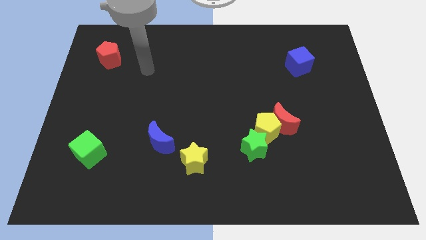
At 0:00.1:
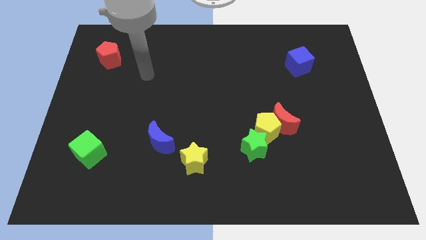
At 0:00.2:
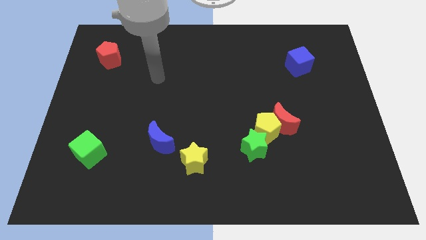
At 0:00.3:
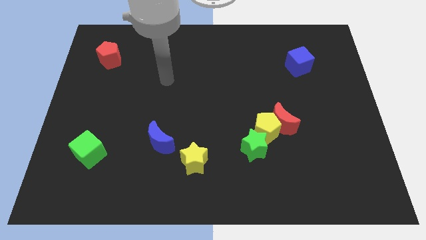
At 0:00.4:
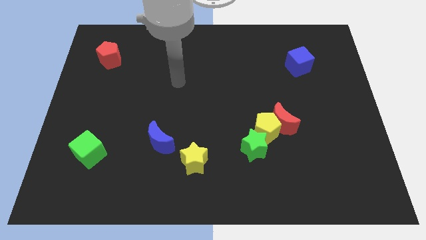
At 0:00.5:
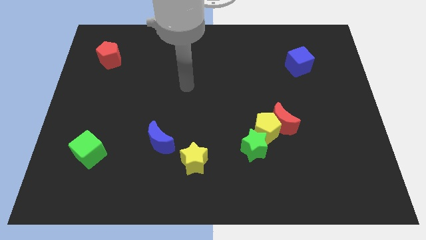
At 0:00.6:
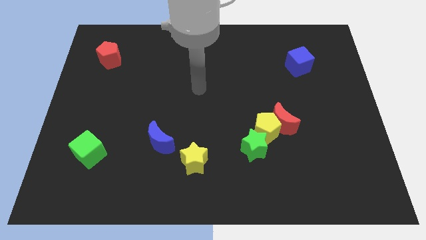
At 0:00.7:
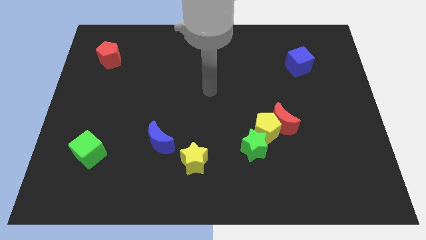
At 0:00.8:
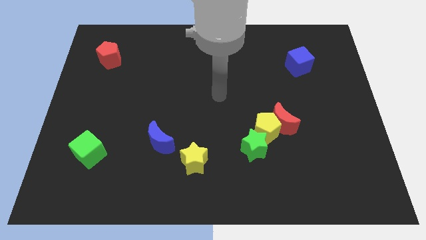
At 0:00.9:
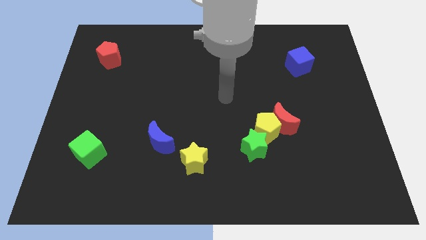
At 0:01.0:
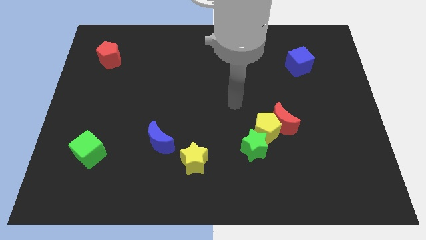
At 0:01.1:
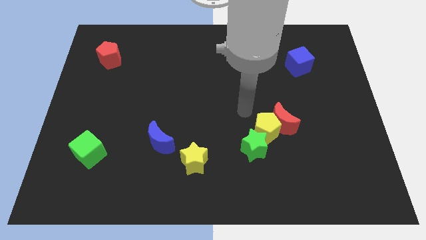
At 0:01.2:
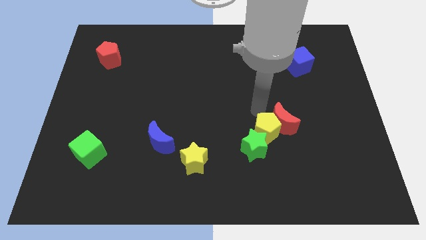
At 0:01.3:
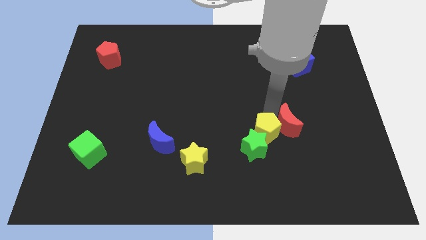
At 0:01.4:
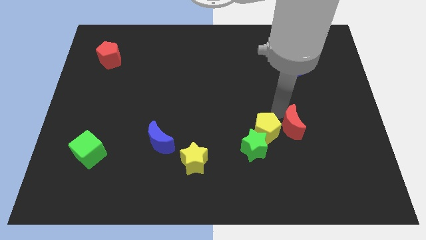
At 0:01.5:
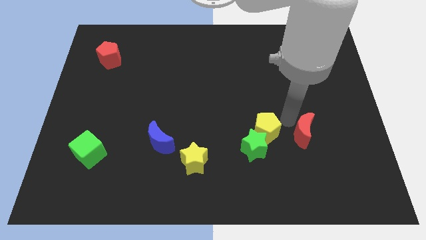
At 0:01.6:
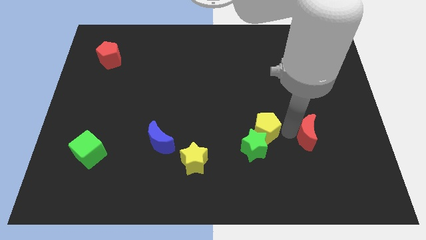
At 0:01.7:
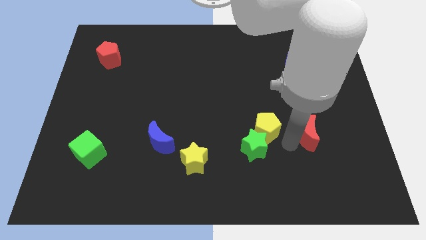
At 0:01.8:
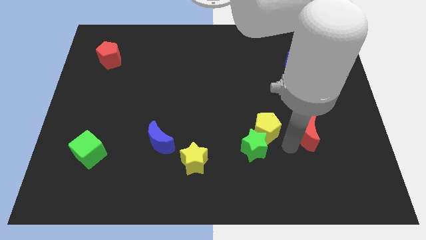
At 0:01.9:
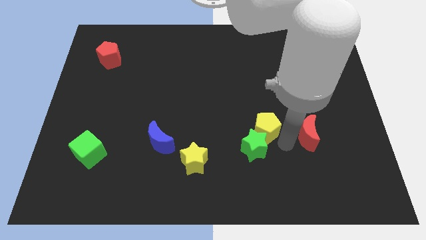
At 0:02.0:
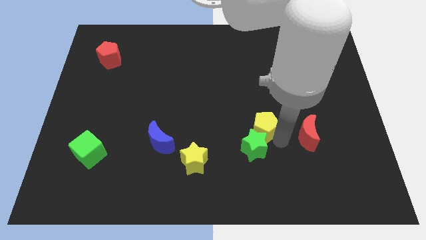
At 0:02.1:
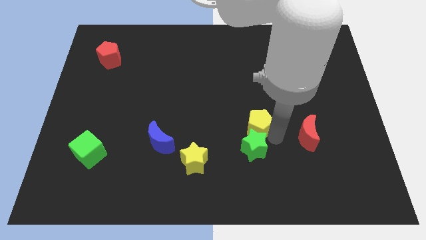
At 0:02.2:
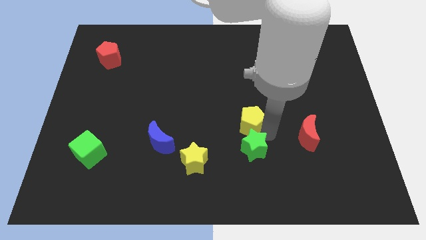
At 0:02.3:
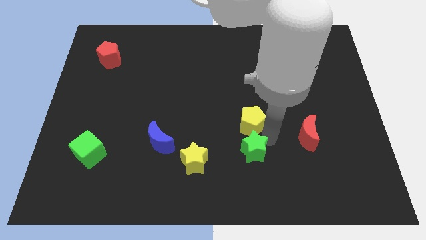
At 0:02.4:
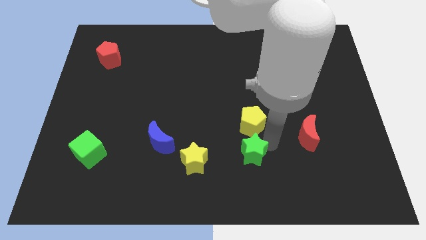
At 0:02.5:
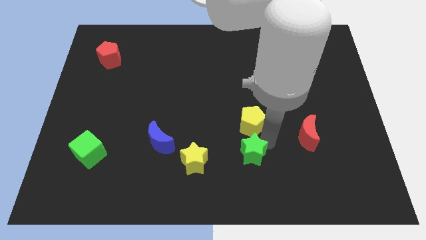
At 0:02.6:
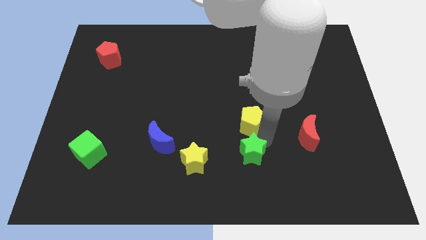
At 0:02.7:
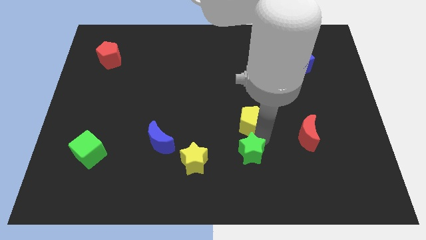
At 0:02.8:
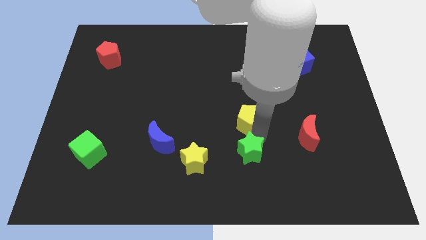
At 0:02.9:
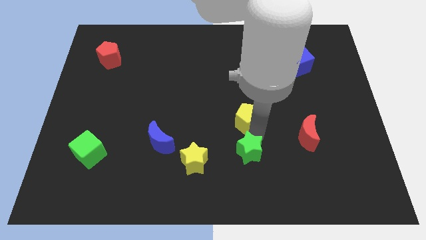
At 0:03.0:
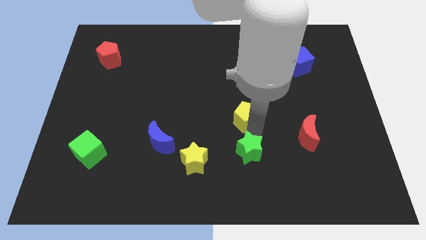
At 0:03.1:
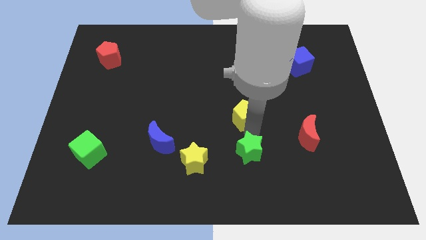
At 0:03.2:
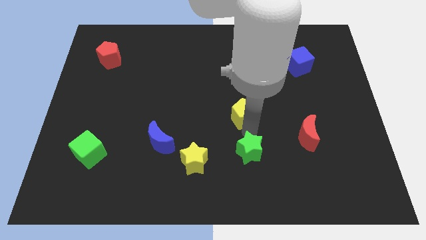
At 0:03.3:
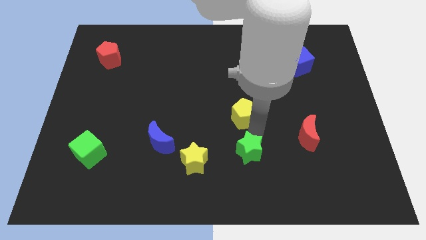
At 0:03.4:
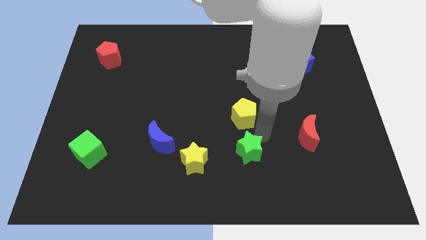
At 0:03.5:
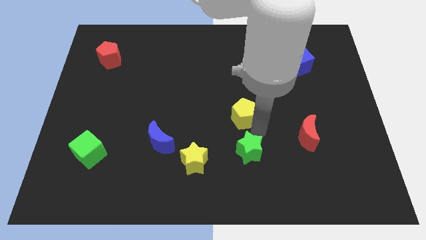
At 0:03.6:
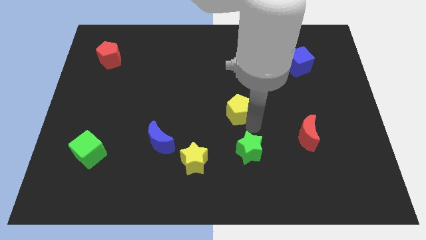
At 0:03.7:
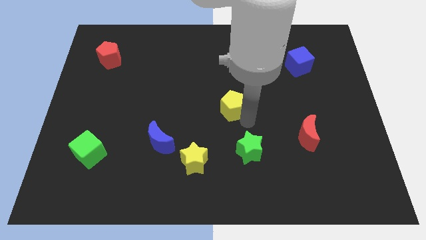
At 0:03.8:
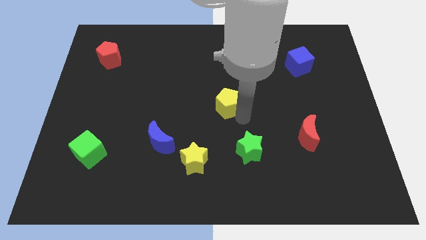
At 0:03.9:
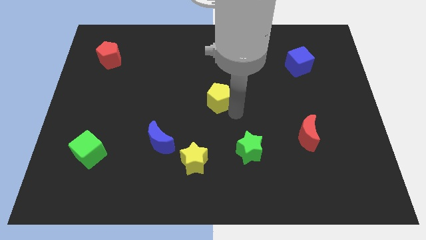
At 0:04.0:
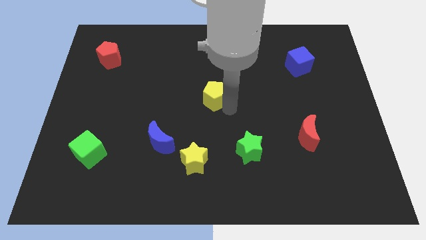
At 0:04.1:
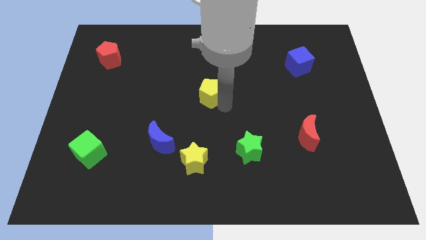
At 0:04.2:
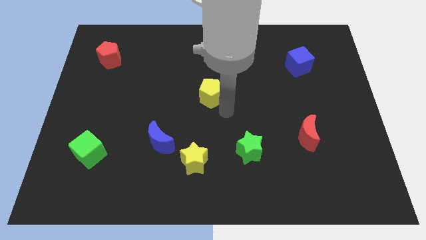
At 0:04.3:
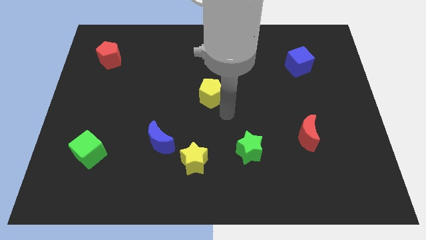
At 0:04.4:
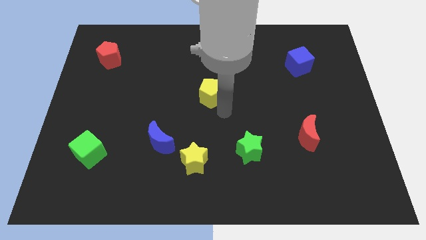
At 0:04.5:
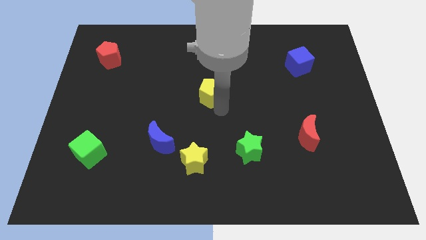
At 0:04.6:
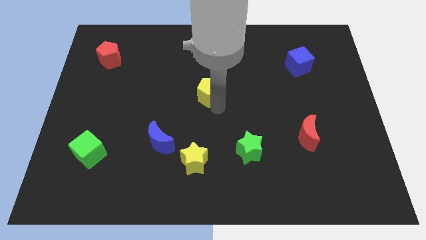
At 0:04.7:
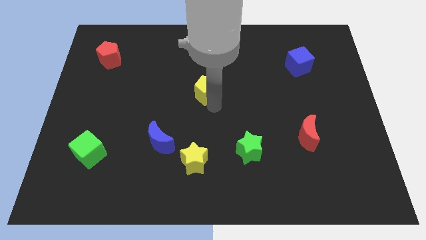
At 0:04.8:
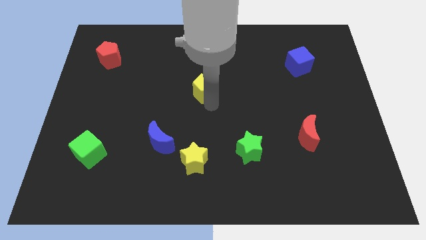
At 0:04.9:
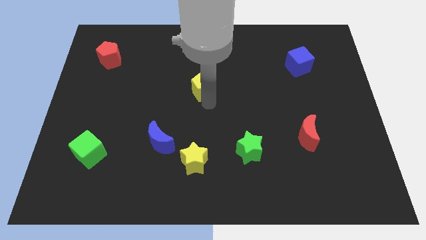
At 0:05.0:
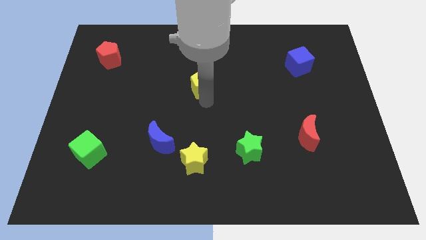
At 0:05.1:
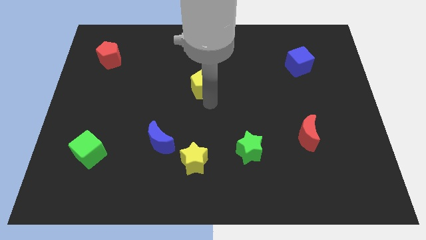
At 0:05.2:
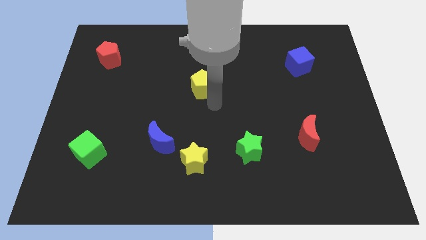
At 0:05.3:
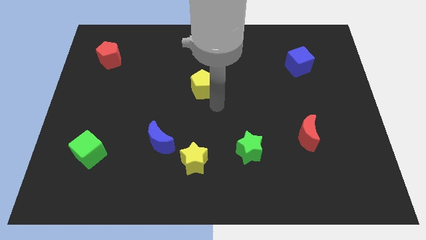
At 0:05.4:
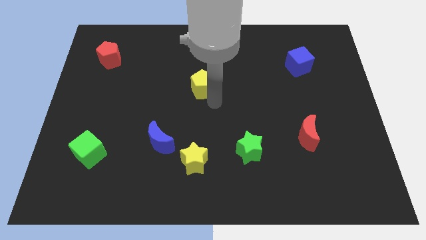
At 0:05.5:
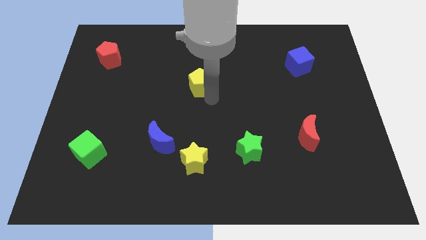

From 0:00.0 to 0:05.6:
move the yellow pentagon upwards and then left

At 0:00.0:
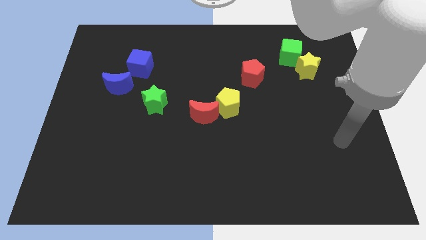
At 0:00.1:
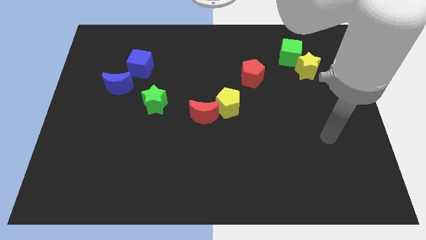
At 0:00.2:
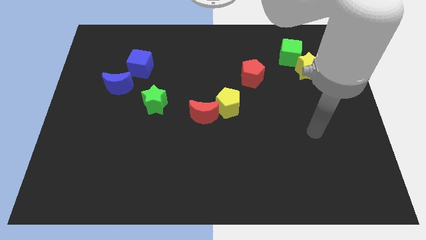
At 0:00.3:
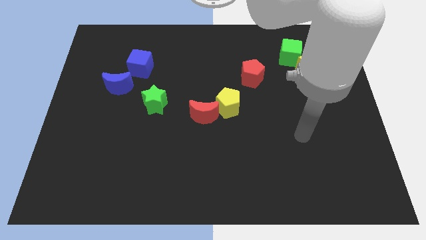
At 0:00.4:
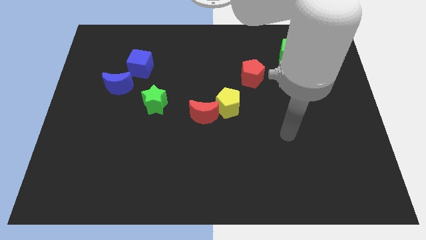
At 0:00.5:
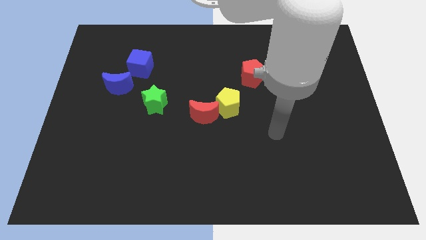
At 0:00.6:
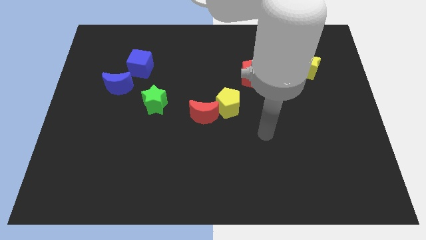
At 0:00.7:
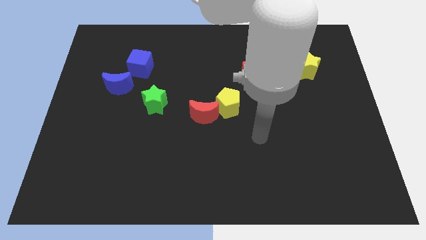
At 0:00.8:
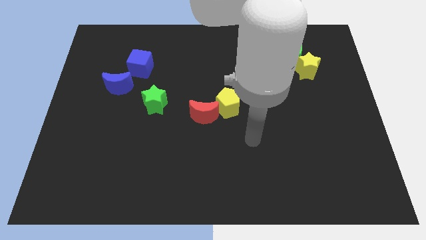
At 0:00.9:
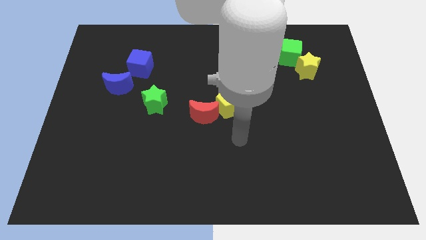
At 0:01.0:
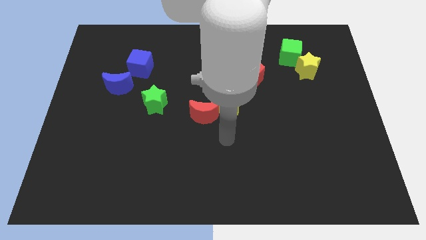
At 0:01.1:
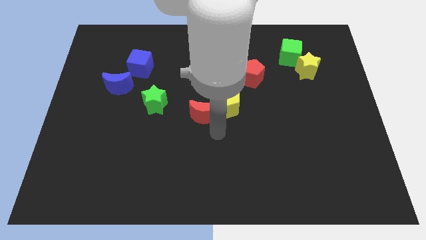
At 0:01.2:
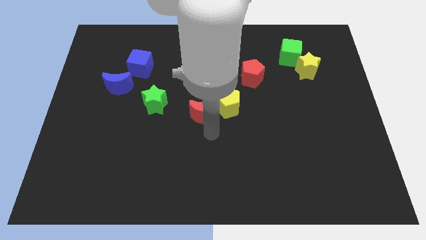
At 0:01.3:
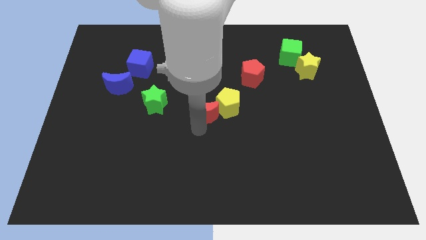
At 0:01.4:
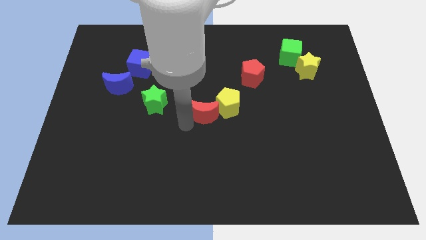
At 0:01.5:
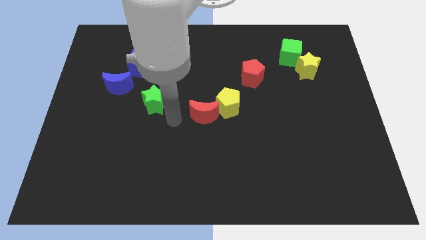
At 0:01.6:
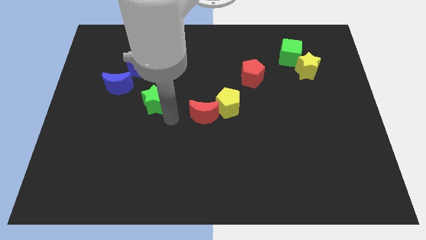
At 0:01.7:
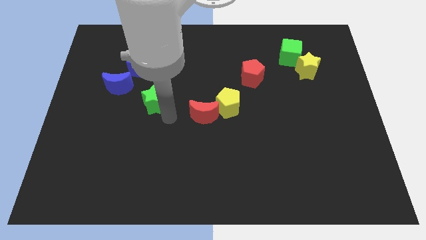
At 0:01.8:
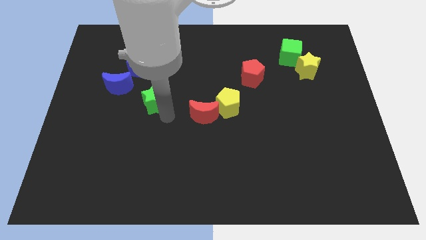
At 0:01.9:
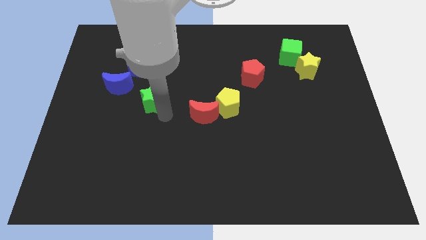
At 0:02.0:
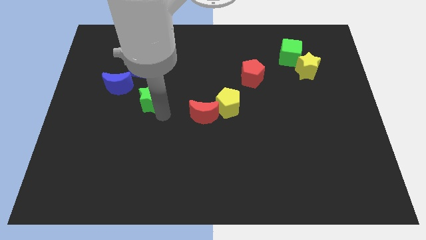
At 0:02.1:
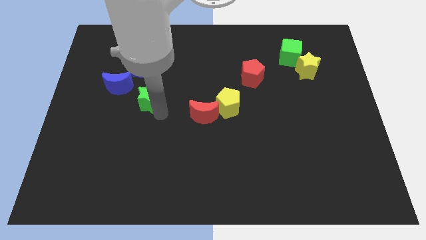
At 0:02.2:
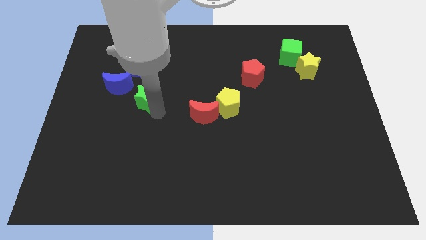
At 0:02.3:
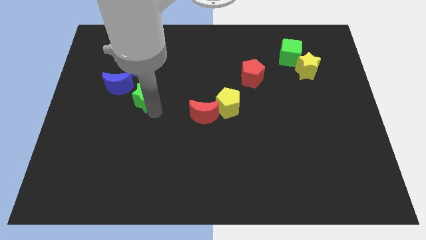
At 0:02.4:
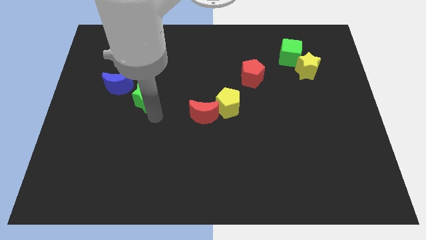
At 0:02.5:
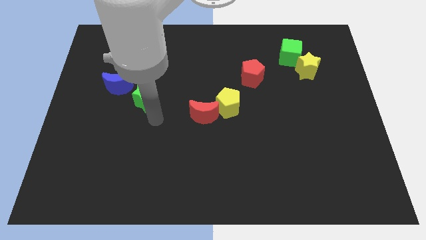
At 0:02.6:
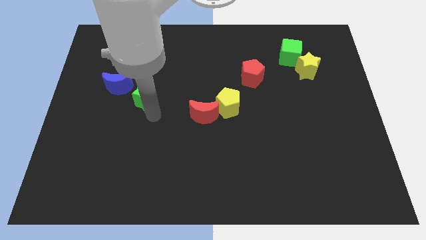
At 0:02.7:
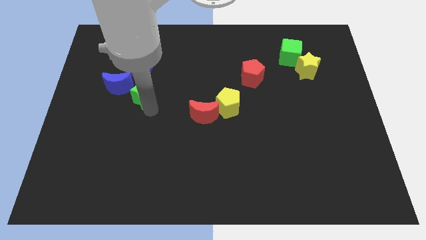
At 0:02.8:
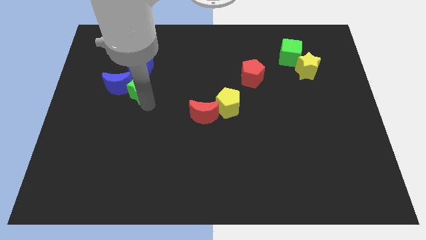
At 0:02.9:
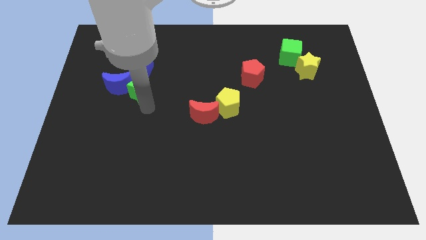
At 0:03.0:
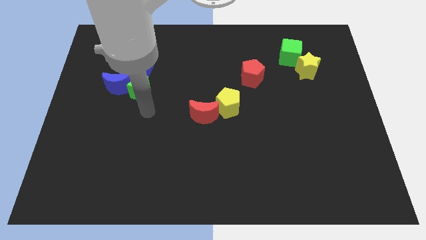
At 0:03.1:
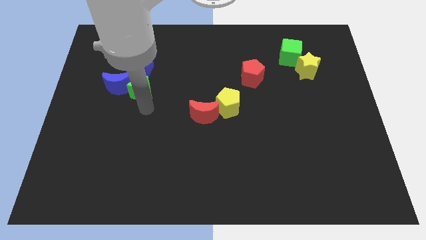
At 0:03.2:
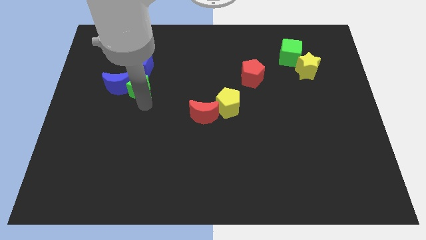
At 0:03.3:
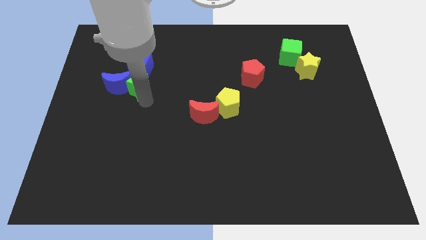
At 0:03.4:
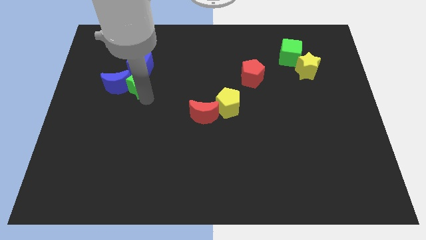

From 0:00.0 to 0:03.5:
move the green star a little bit upwards and then left
